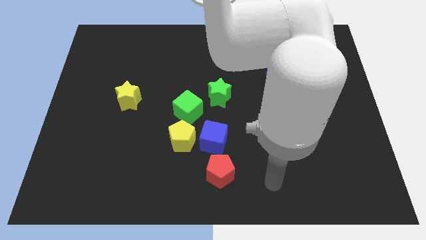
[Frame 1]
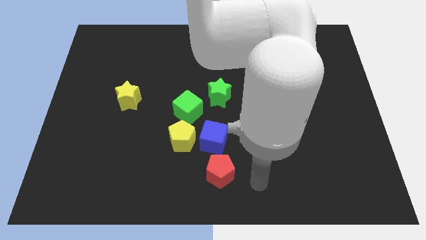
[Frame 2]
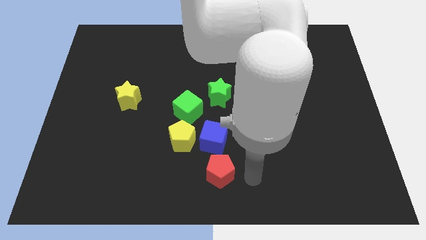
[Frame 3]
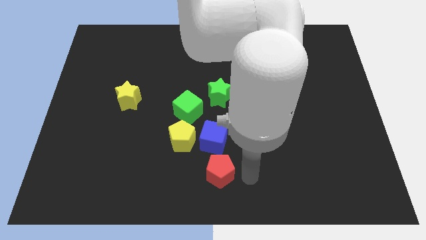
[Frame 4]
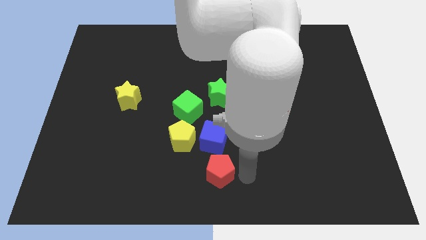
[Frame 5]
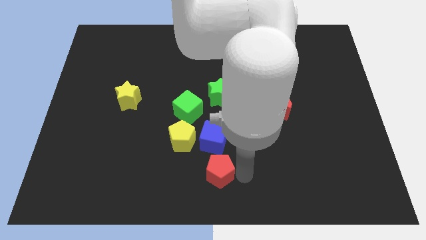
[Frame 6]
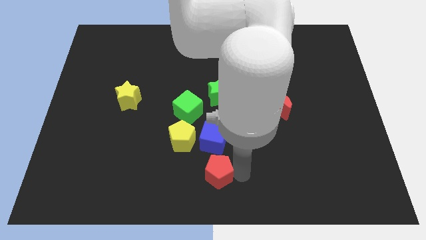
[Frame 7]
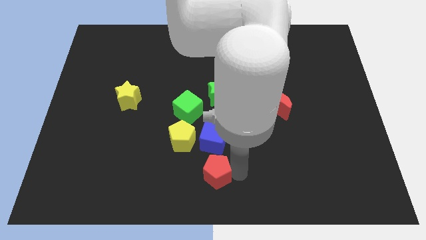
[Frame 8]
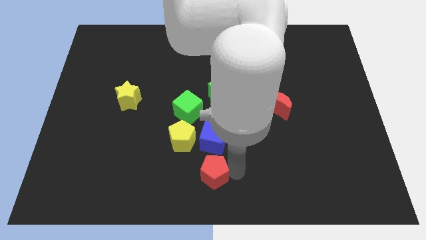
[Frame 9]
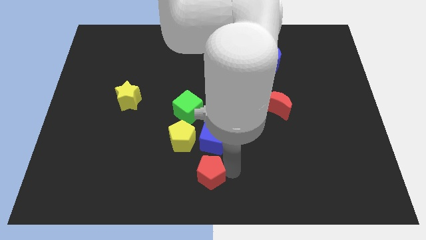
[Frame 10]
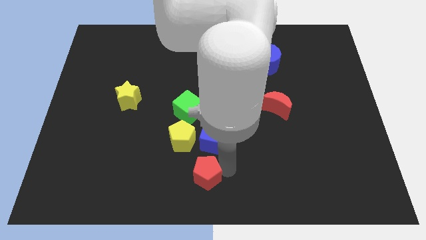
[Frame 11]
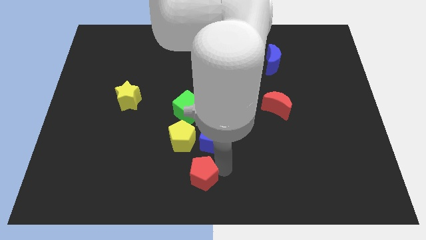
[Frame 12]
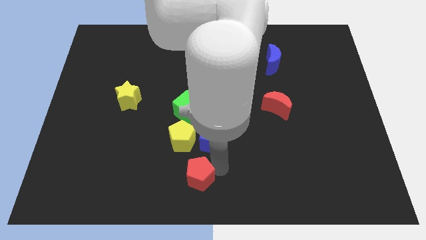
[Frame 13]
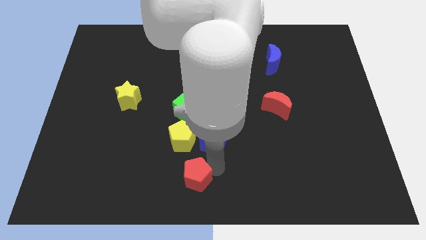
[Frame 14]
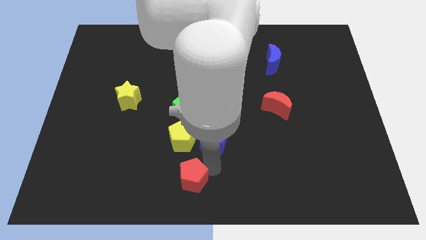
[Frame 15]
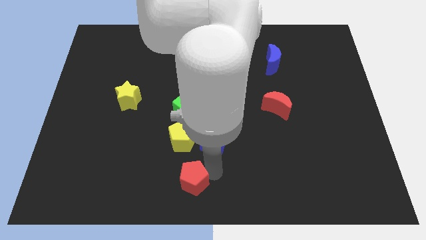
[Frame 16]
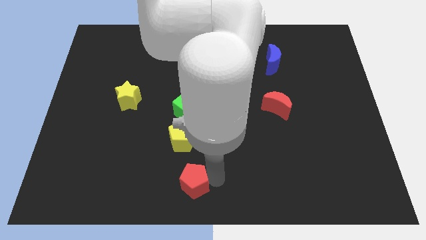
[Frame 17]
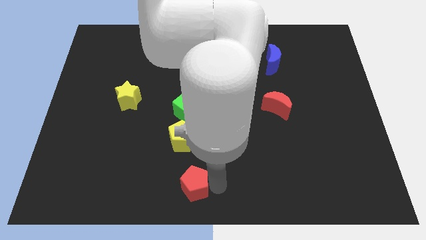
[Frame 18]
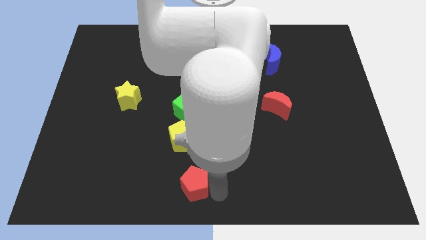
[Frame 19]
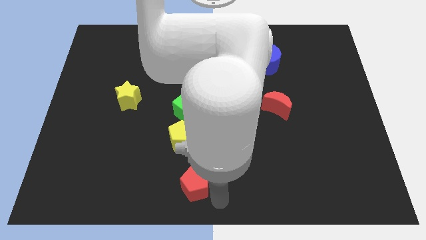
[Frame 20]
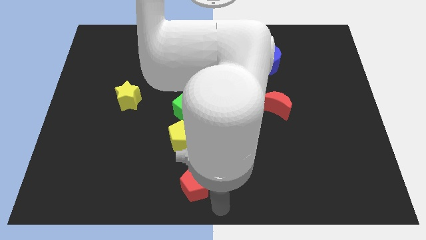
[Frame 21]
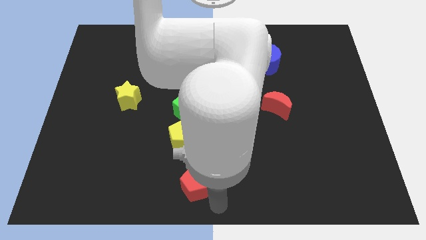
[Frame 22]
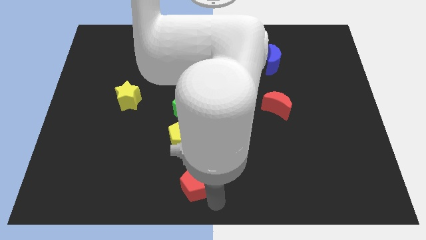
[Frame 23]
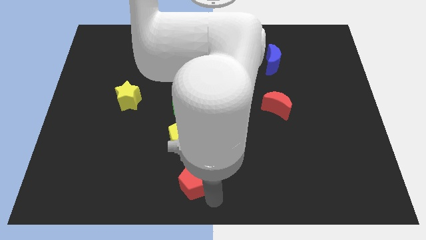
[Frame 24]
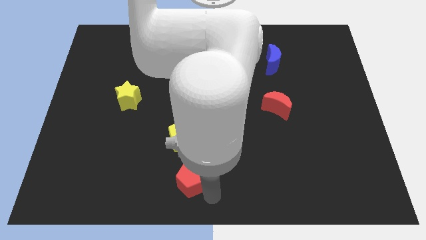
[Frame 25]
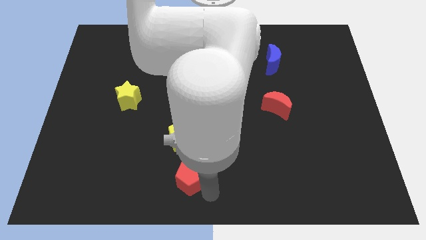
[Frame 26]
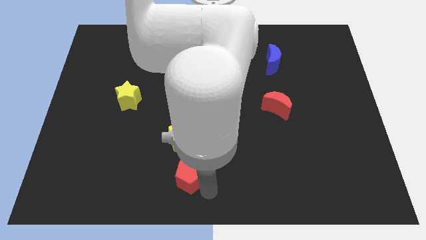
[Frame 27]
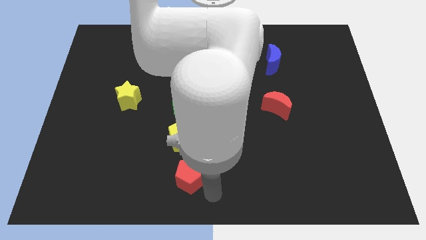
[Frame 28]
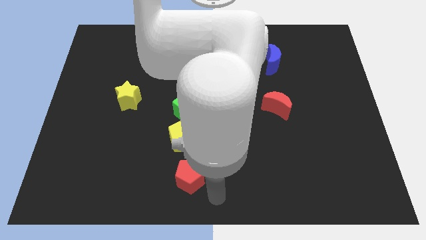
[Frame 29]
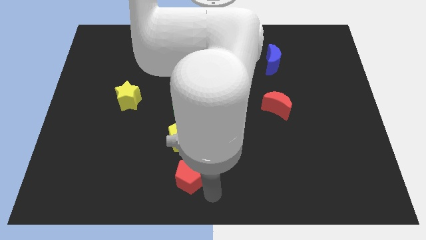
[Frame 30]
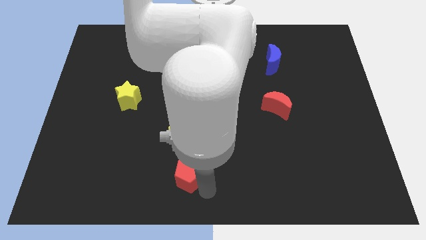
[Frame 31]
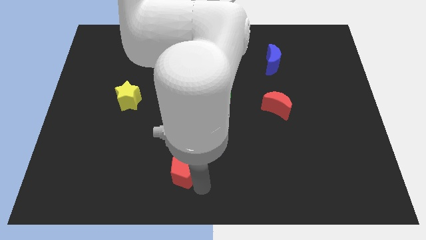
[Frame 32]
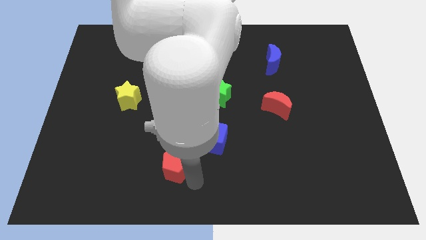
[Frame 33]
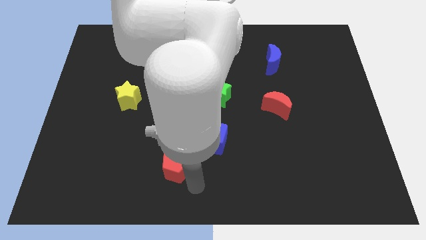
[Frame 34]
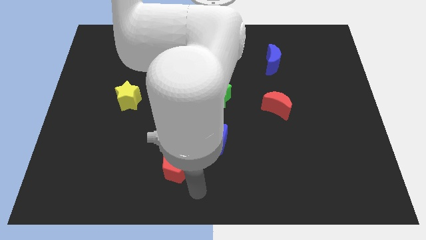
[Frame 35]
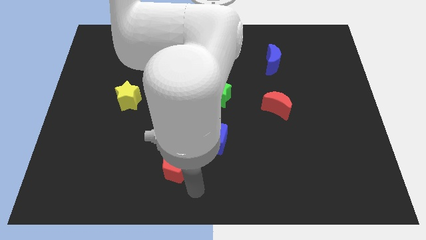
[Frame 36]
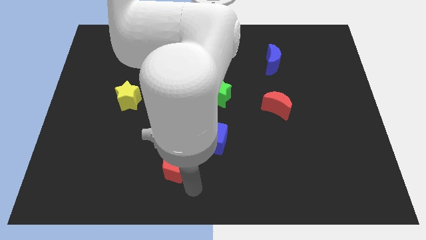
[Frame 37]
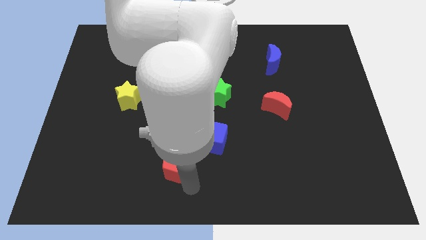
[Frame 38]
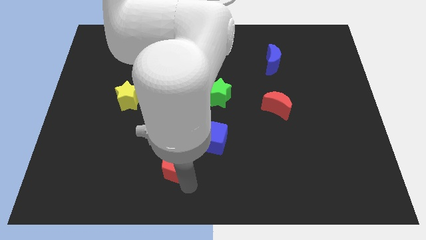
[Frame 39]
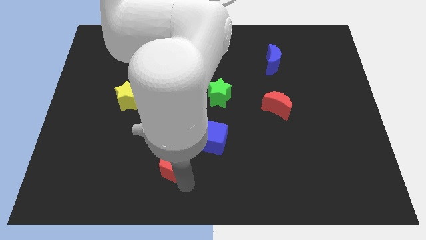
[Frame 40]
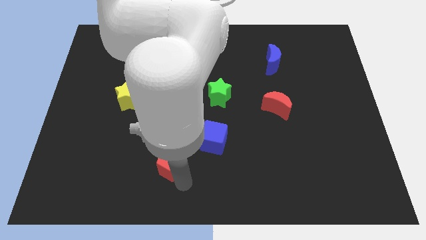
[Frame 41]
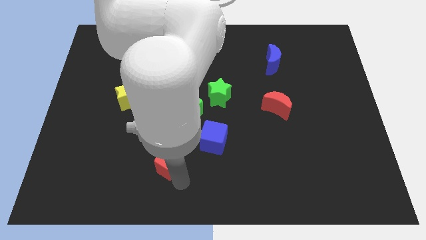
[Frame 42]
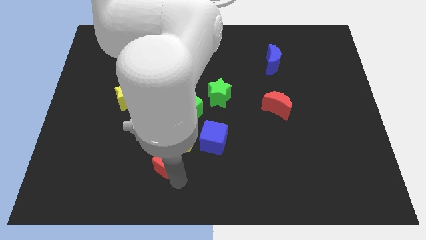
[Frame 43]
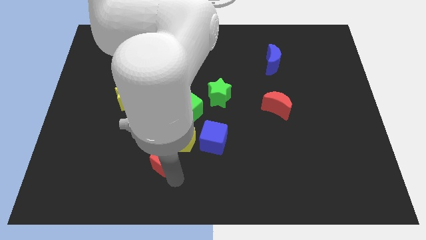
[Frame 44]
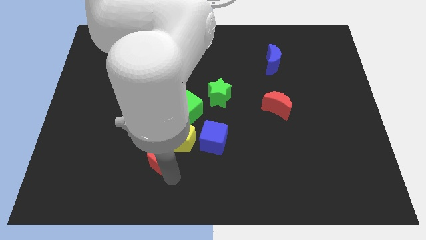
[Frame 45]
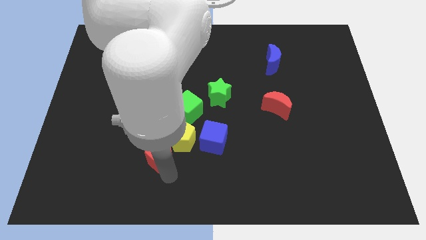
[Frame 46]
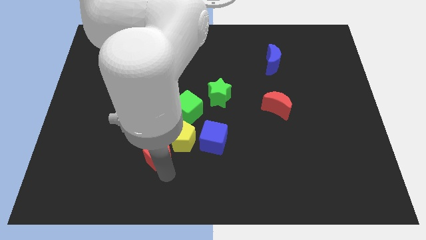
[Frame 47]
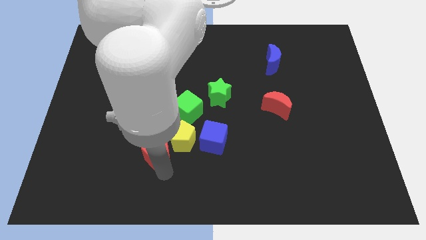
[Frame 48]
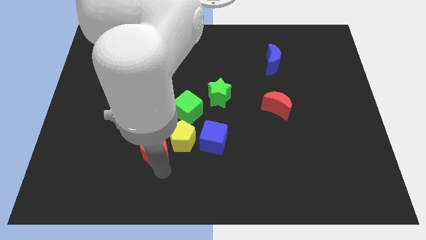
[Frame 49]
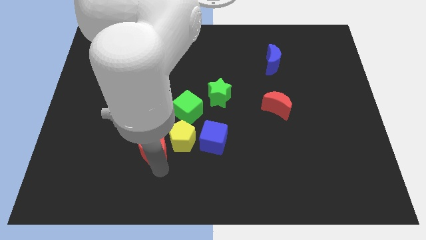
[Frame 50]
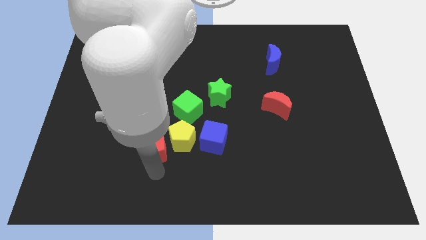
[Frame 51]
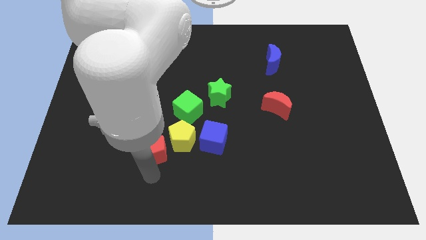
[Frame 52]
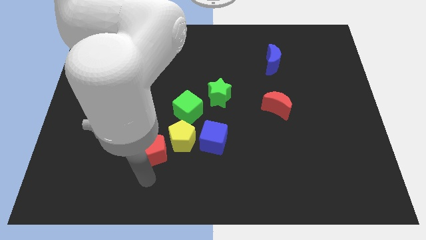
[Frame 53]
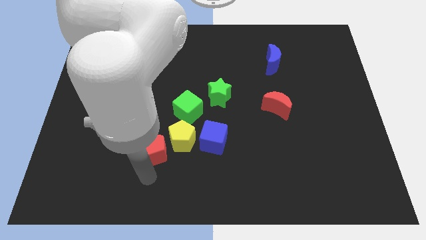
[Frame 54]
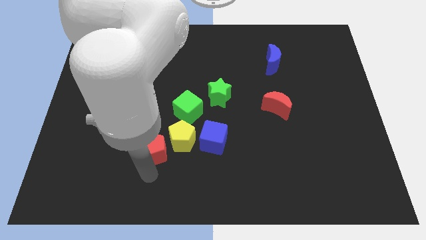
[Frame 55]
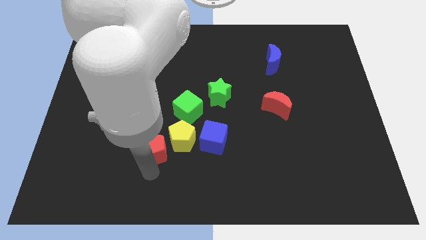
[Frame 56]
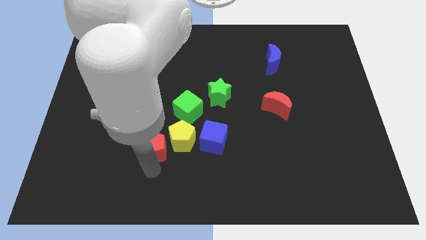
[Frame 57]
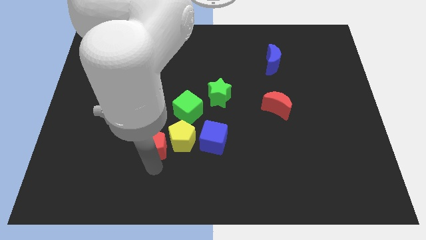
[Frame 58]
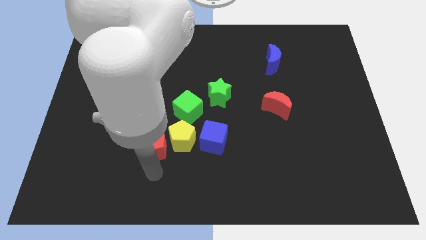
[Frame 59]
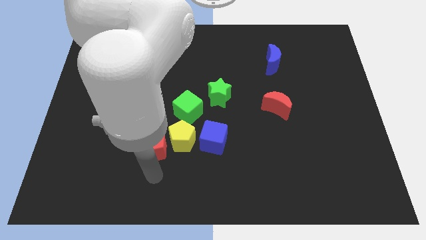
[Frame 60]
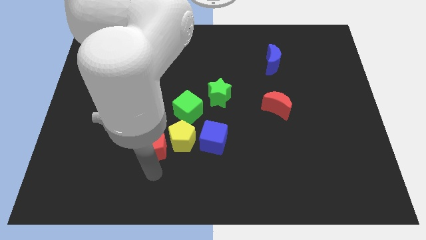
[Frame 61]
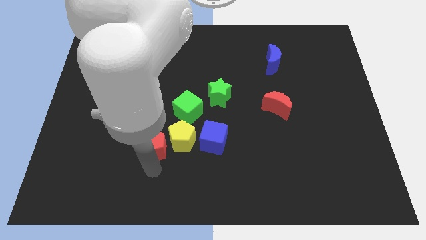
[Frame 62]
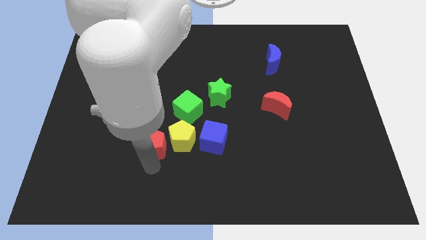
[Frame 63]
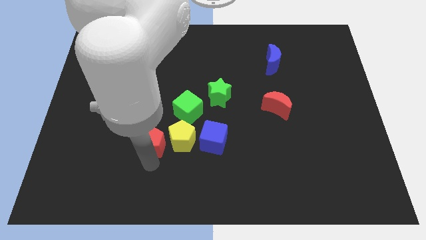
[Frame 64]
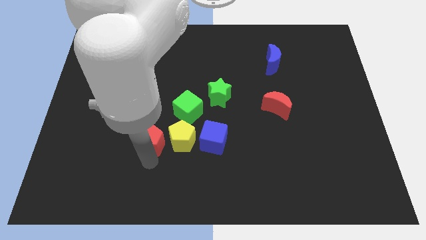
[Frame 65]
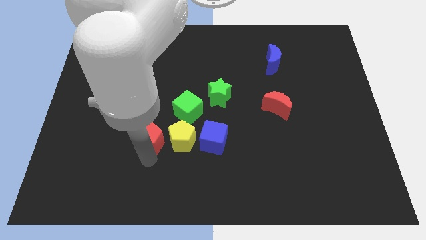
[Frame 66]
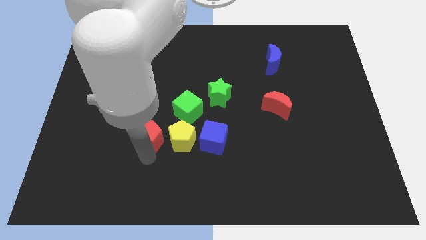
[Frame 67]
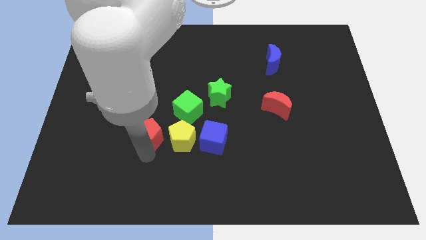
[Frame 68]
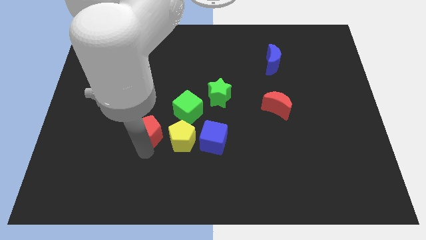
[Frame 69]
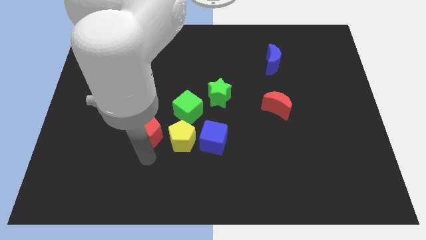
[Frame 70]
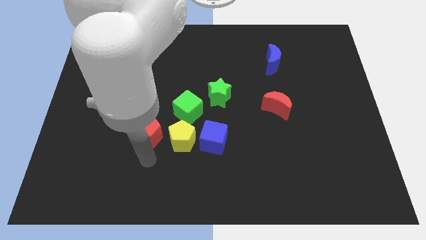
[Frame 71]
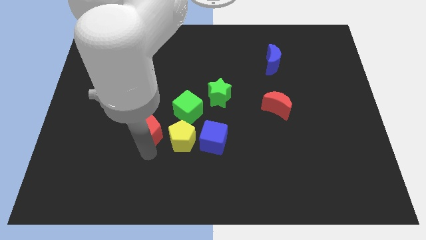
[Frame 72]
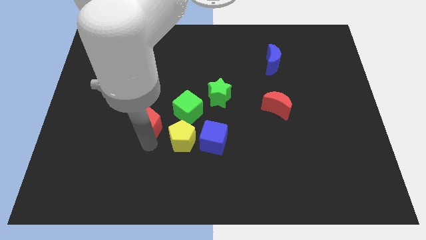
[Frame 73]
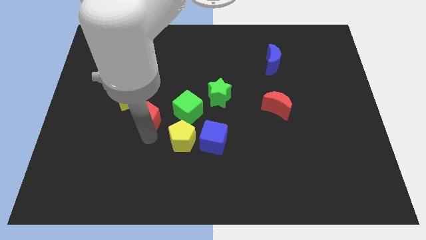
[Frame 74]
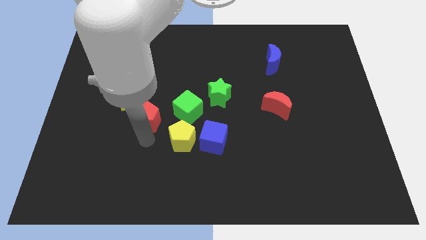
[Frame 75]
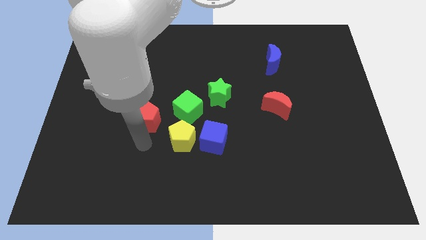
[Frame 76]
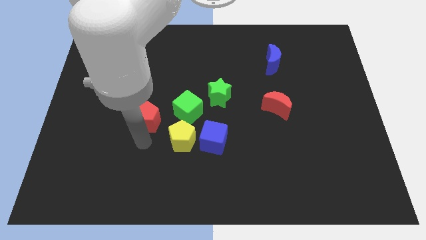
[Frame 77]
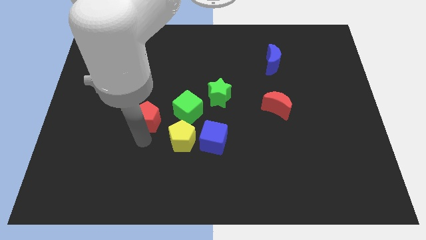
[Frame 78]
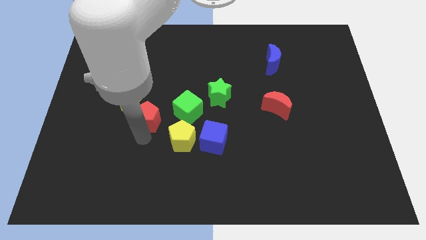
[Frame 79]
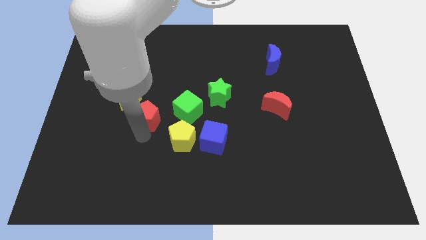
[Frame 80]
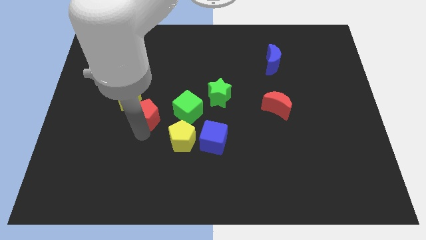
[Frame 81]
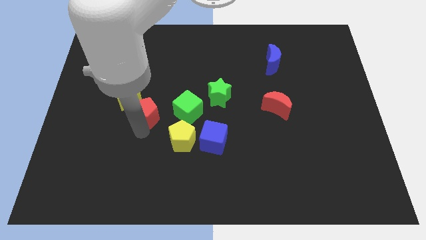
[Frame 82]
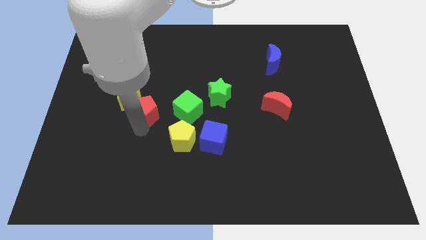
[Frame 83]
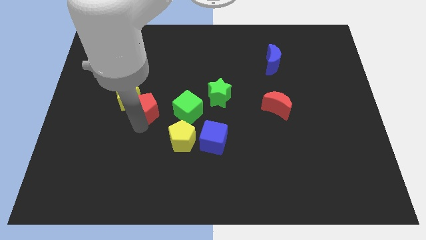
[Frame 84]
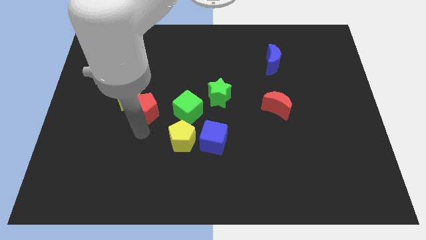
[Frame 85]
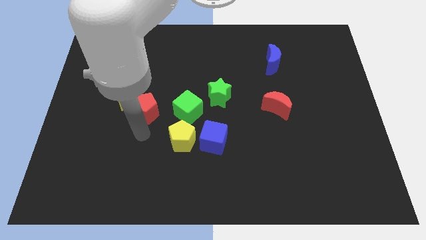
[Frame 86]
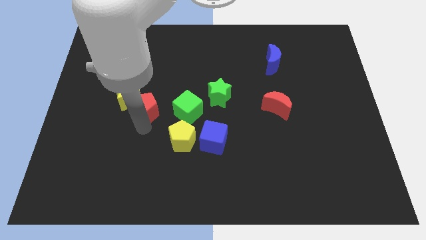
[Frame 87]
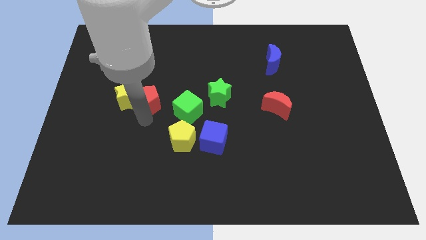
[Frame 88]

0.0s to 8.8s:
move the red pentagon to the top right of the yellow star
